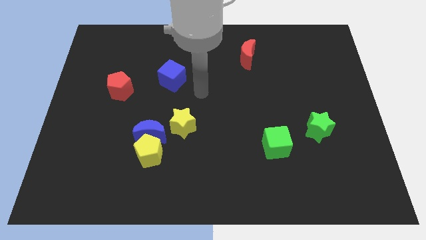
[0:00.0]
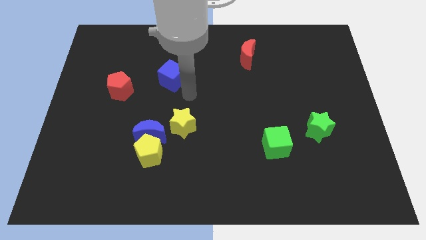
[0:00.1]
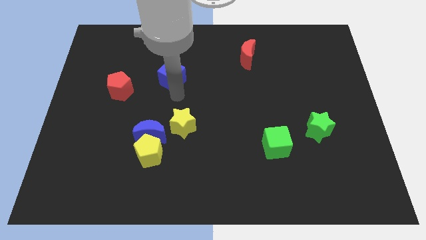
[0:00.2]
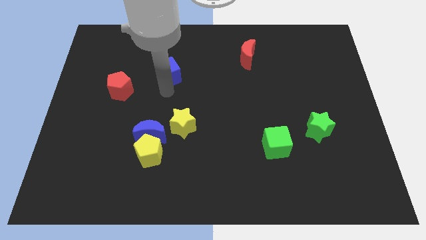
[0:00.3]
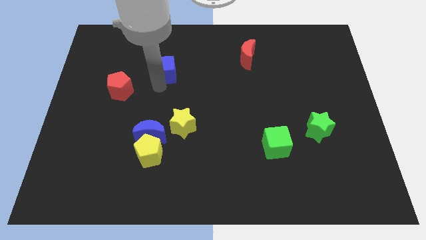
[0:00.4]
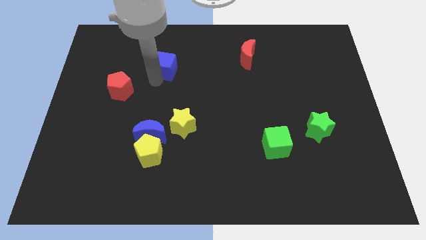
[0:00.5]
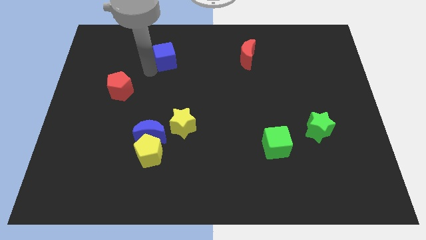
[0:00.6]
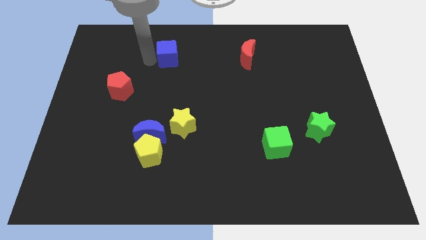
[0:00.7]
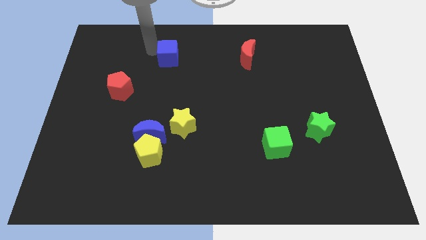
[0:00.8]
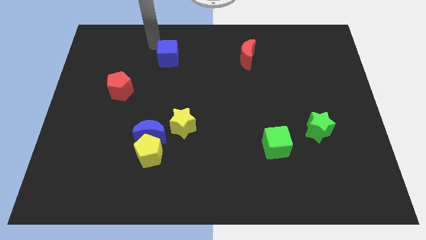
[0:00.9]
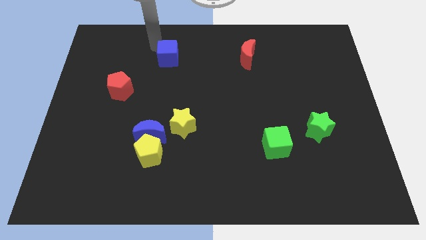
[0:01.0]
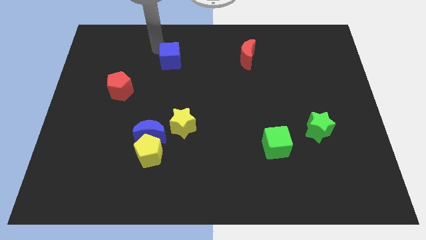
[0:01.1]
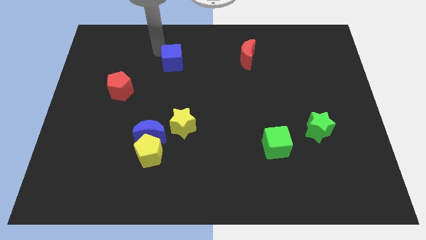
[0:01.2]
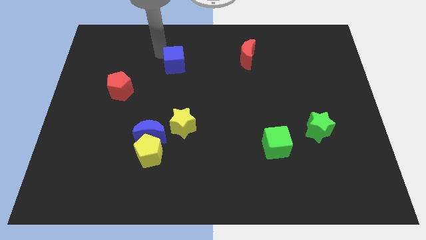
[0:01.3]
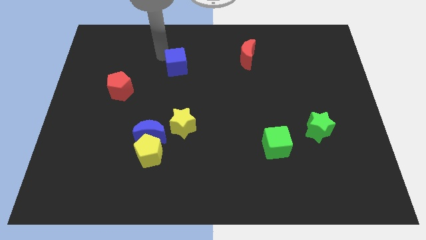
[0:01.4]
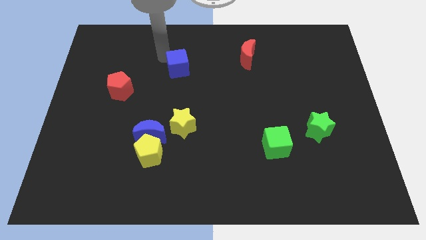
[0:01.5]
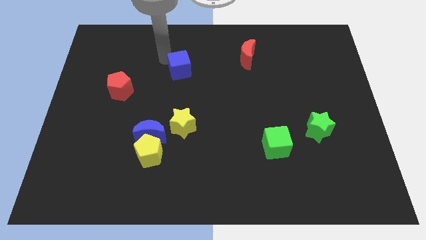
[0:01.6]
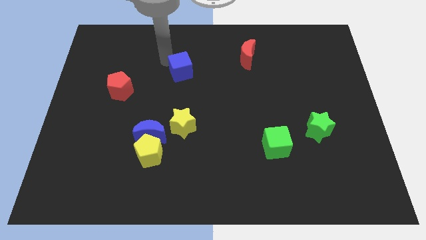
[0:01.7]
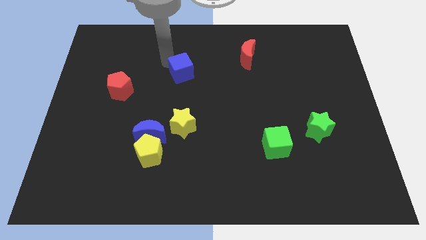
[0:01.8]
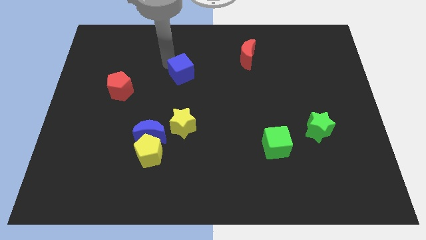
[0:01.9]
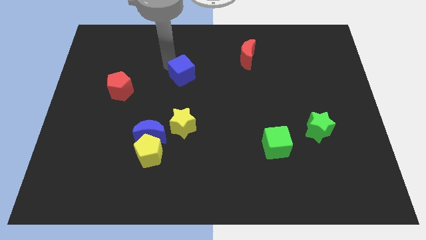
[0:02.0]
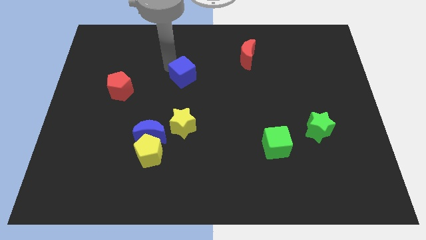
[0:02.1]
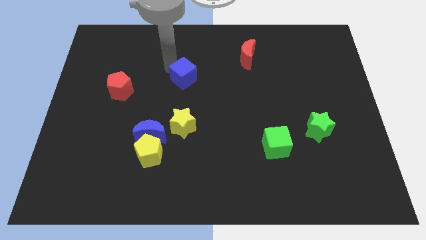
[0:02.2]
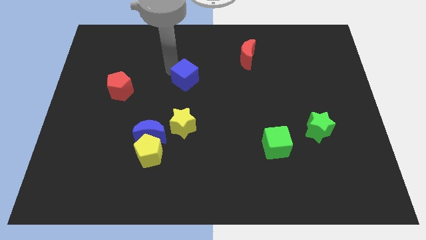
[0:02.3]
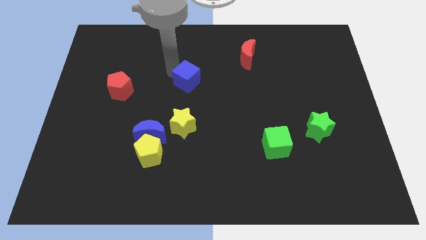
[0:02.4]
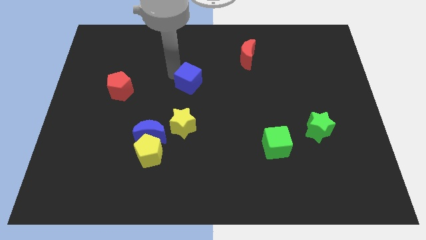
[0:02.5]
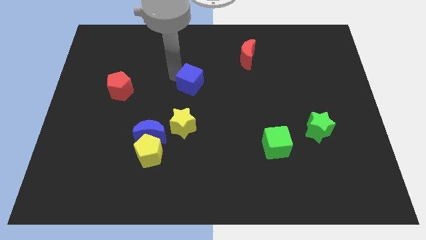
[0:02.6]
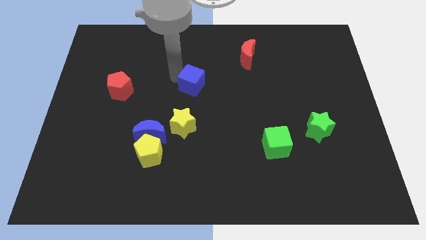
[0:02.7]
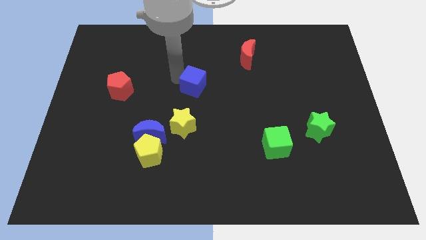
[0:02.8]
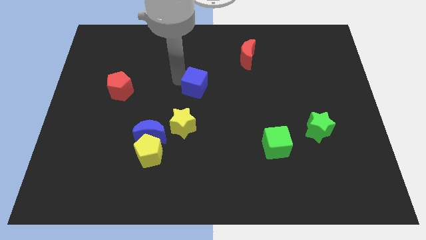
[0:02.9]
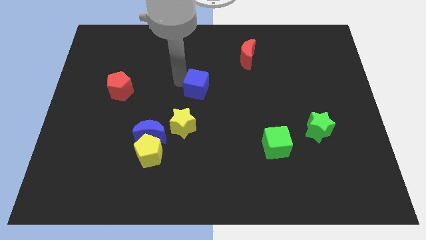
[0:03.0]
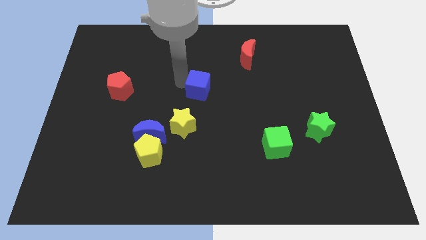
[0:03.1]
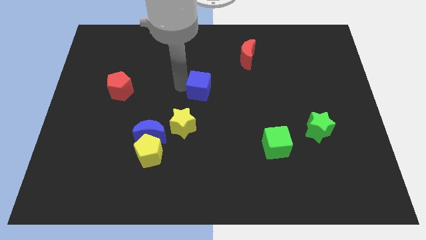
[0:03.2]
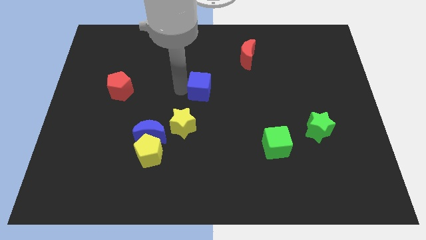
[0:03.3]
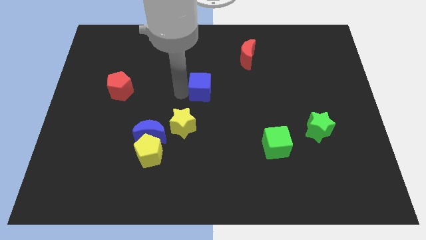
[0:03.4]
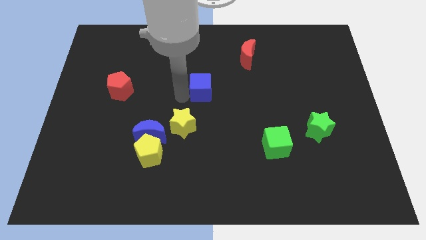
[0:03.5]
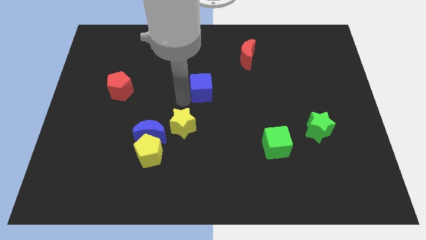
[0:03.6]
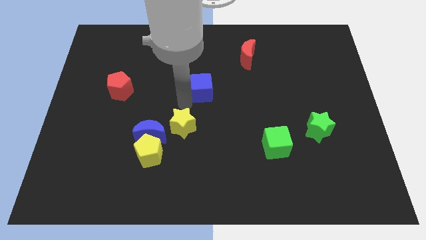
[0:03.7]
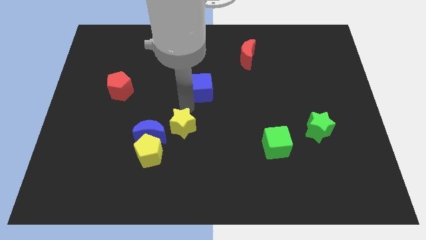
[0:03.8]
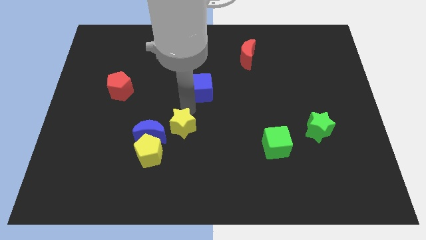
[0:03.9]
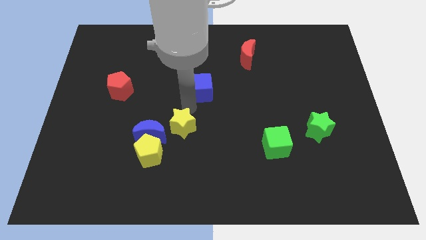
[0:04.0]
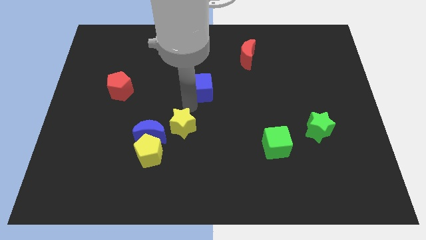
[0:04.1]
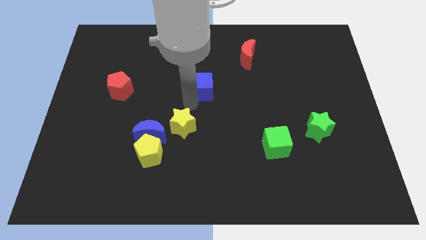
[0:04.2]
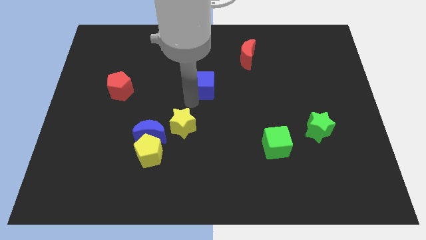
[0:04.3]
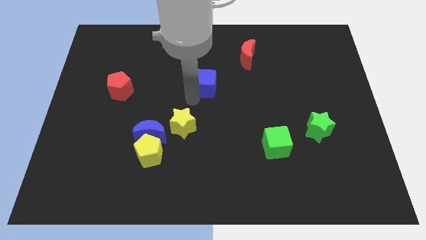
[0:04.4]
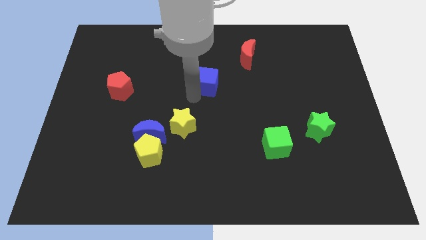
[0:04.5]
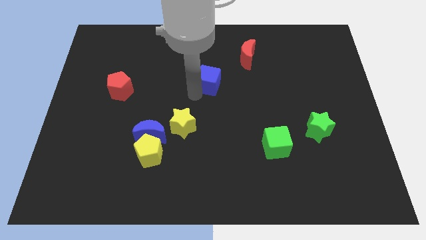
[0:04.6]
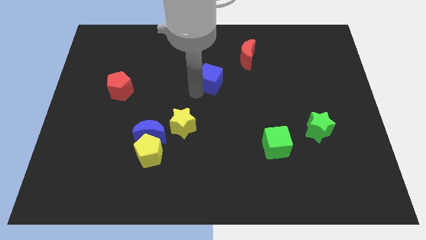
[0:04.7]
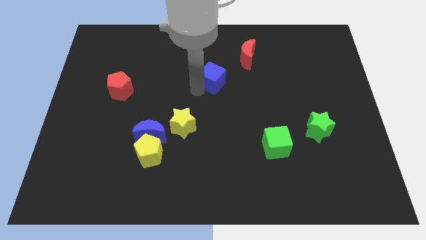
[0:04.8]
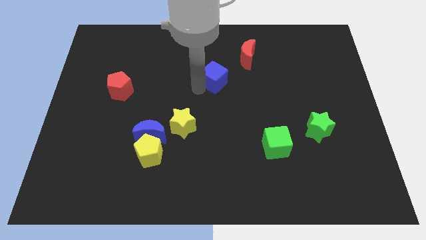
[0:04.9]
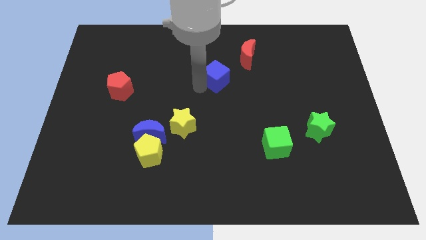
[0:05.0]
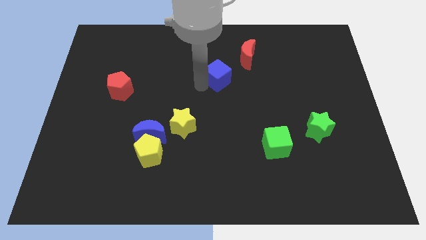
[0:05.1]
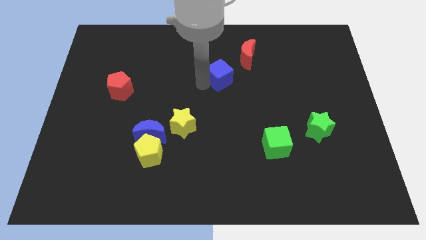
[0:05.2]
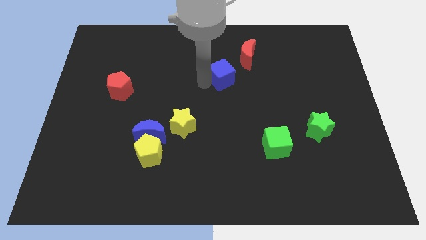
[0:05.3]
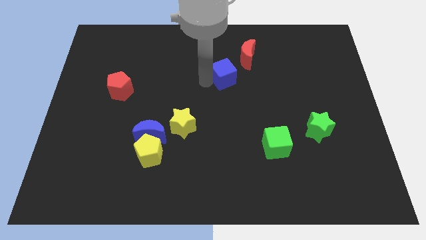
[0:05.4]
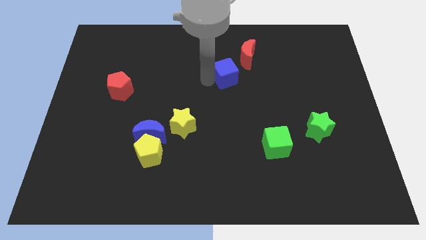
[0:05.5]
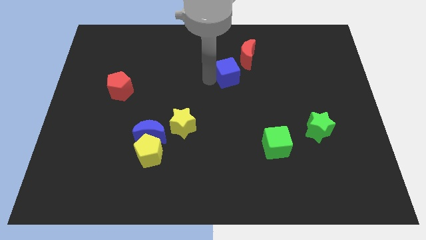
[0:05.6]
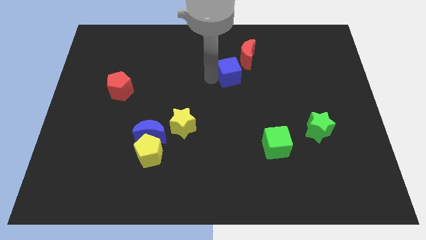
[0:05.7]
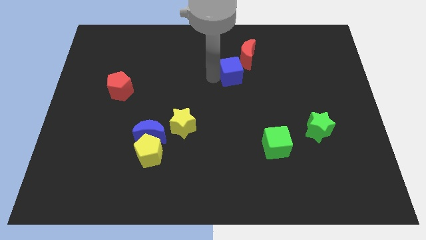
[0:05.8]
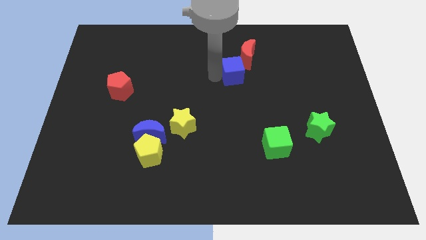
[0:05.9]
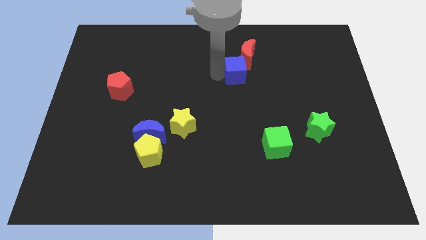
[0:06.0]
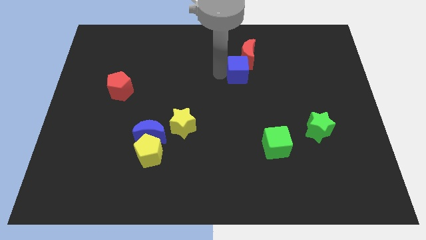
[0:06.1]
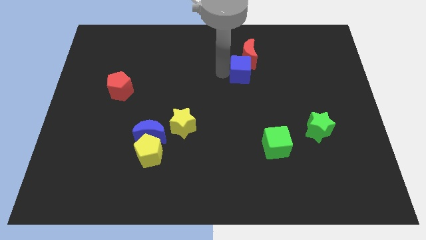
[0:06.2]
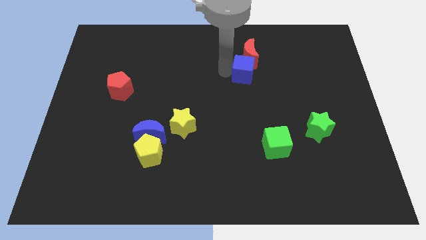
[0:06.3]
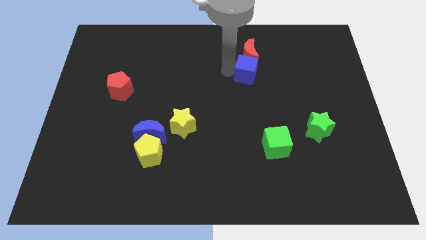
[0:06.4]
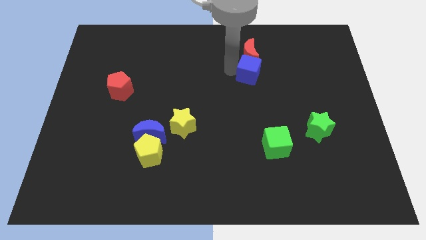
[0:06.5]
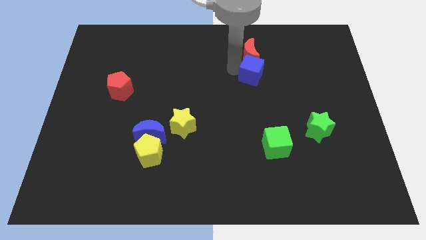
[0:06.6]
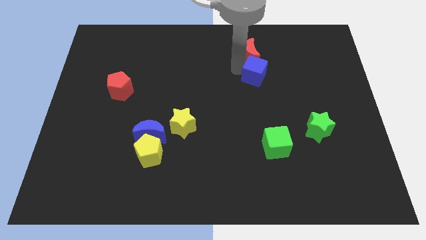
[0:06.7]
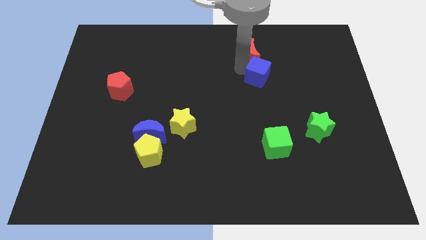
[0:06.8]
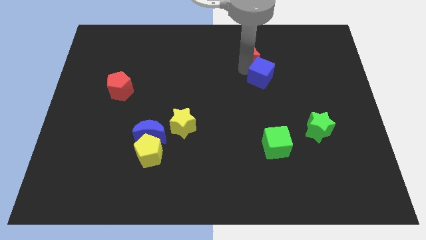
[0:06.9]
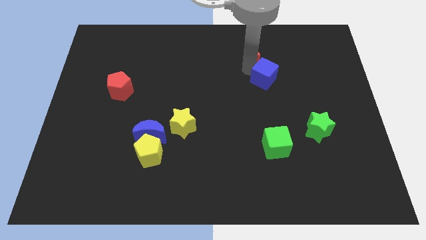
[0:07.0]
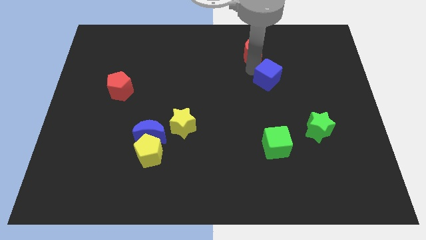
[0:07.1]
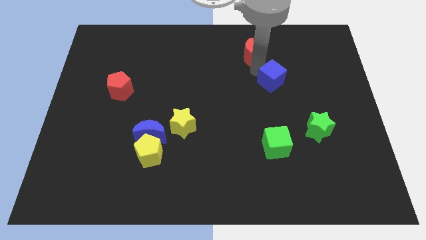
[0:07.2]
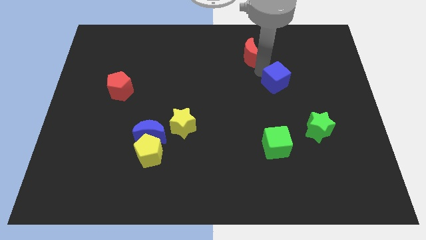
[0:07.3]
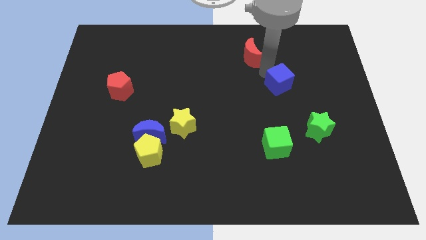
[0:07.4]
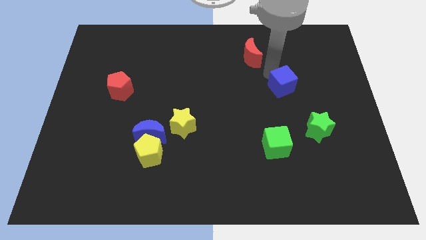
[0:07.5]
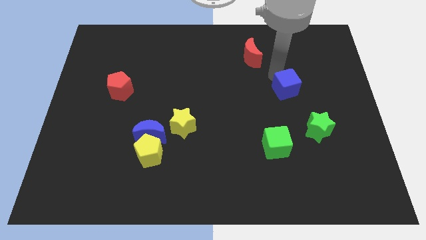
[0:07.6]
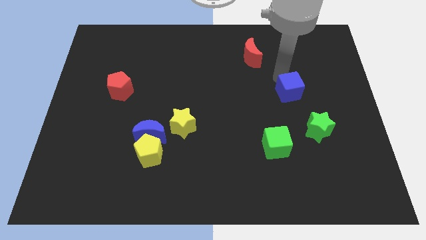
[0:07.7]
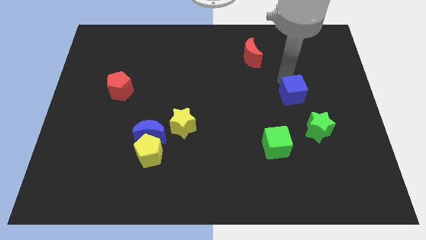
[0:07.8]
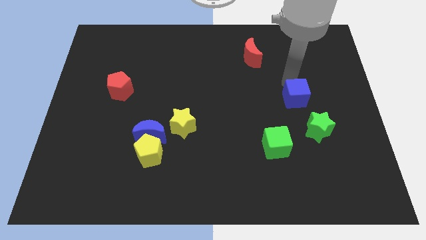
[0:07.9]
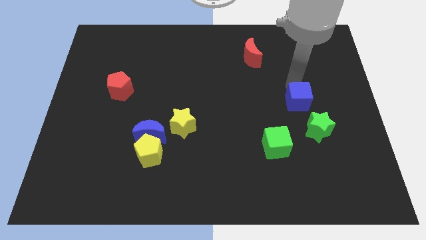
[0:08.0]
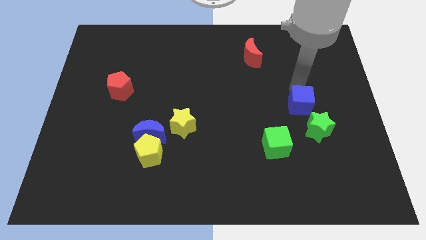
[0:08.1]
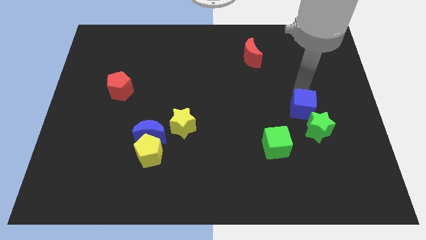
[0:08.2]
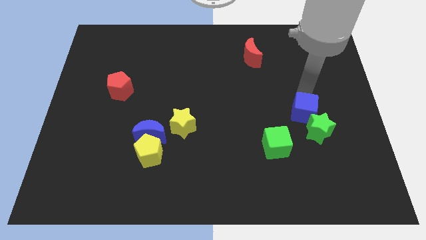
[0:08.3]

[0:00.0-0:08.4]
slide the blue cube close to the green star
